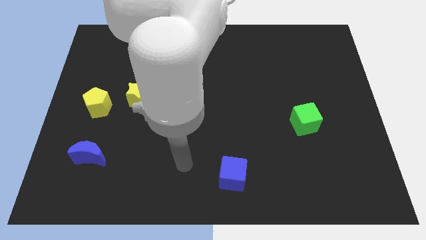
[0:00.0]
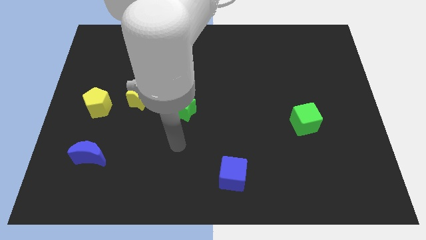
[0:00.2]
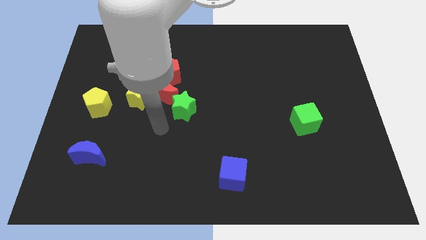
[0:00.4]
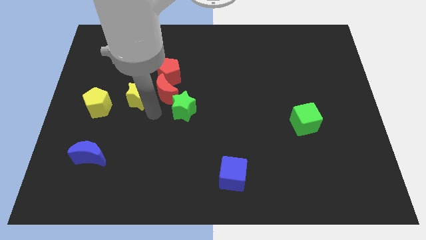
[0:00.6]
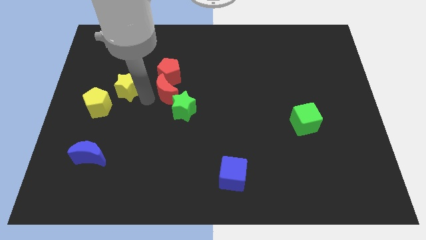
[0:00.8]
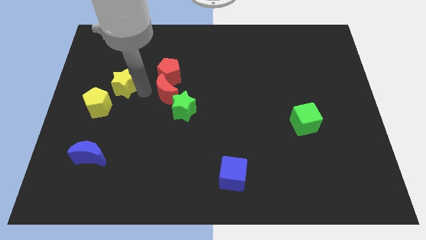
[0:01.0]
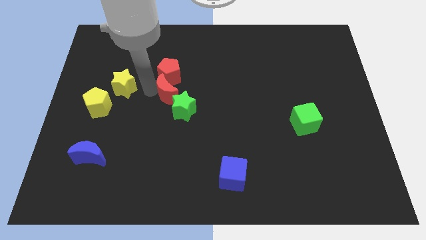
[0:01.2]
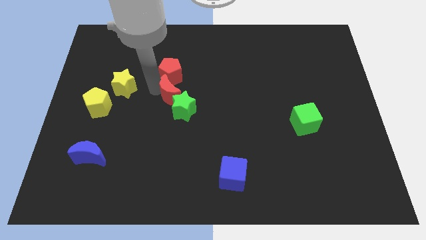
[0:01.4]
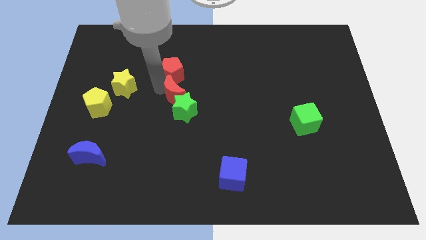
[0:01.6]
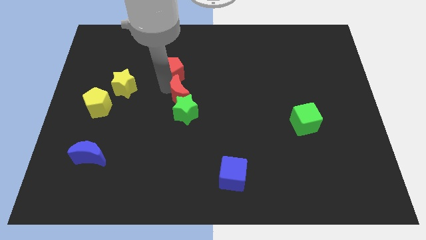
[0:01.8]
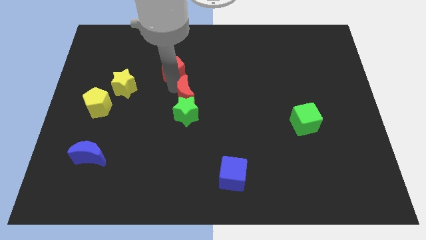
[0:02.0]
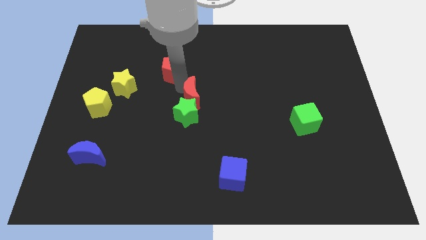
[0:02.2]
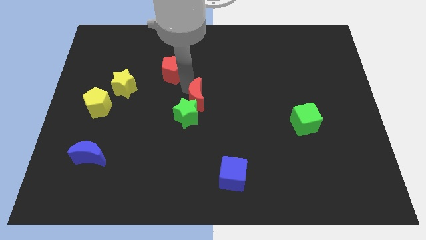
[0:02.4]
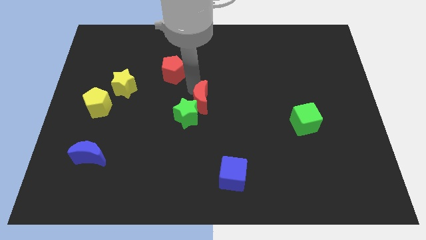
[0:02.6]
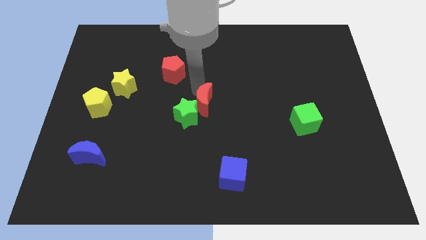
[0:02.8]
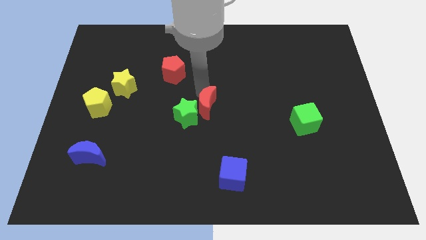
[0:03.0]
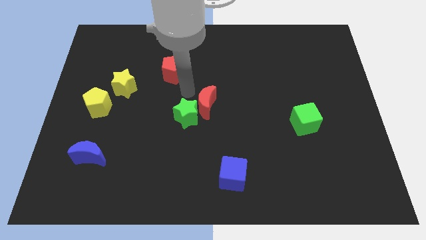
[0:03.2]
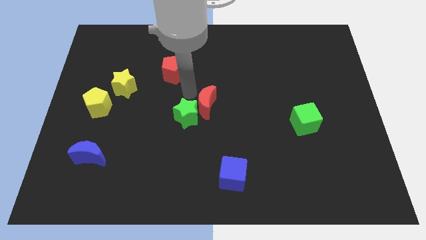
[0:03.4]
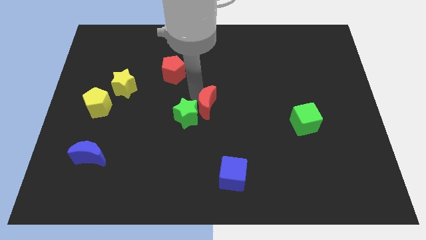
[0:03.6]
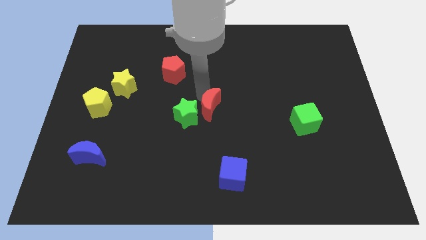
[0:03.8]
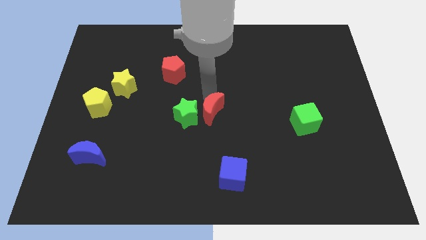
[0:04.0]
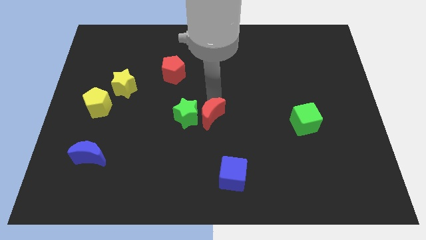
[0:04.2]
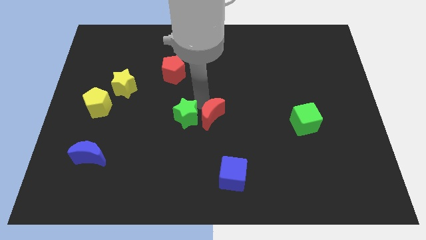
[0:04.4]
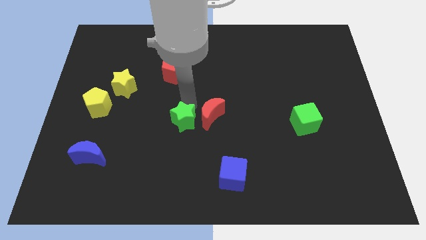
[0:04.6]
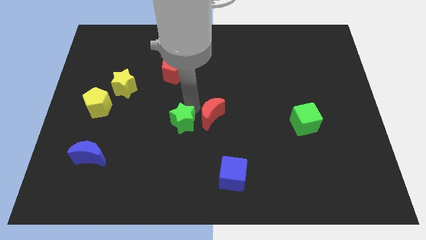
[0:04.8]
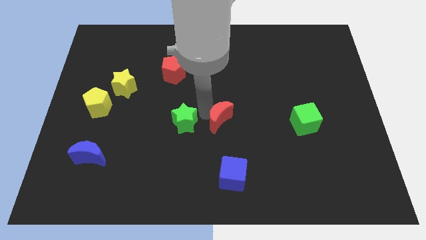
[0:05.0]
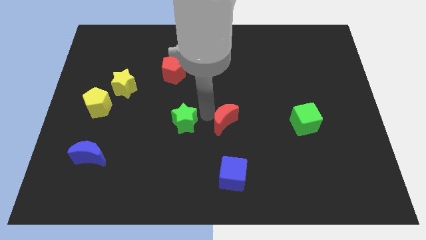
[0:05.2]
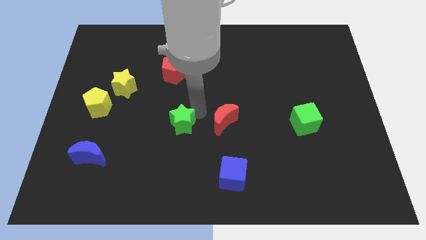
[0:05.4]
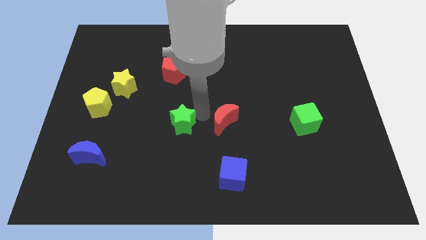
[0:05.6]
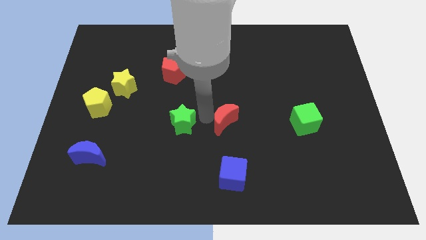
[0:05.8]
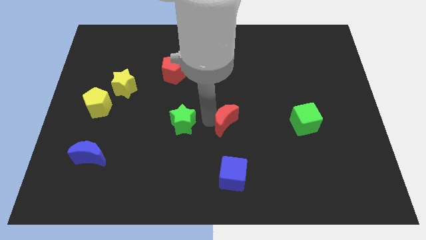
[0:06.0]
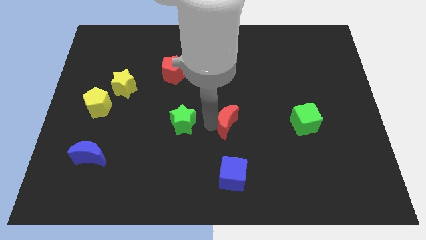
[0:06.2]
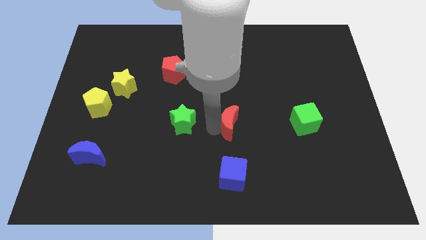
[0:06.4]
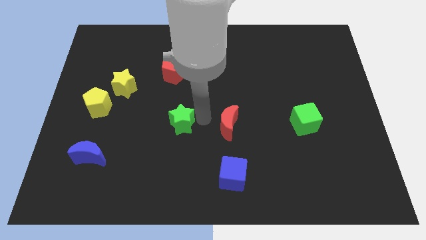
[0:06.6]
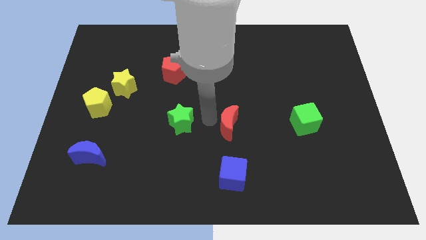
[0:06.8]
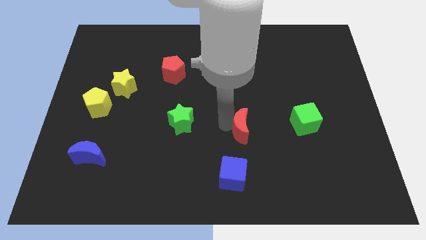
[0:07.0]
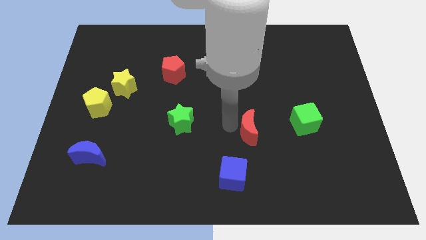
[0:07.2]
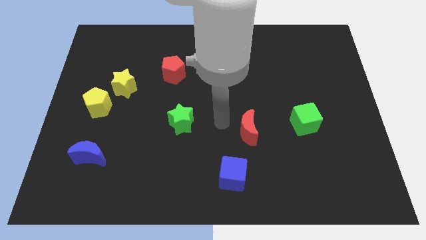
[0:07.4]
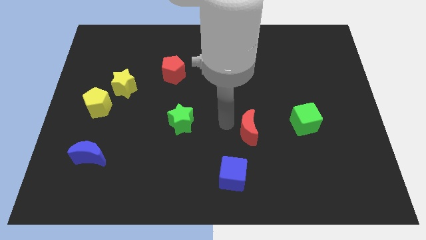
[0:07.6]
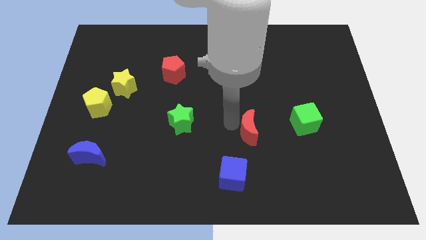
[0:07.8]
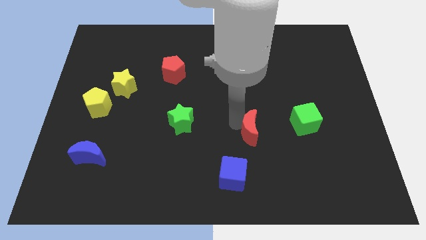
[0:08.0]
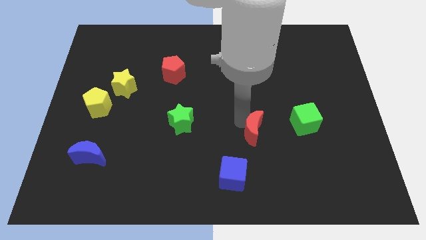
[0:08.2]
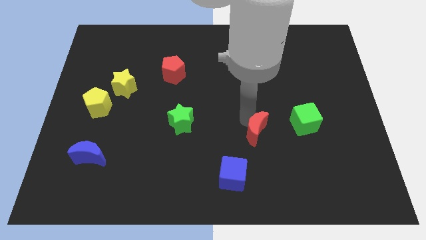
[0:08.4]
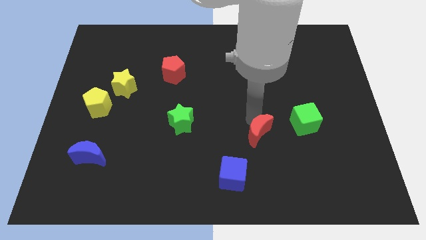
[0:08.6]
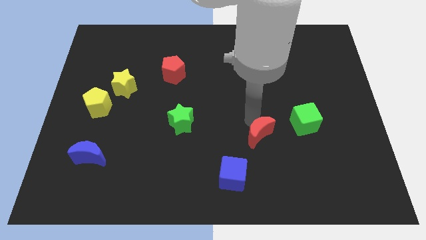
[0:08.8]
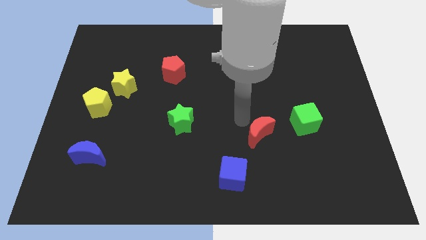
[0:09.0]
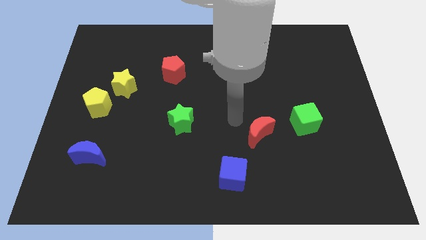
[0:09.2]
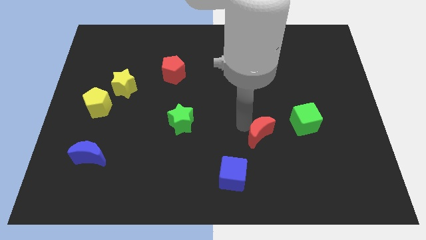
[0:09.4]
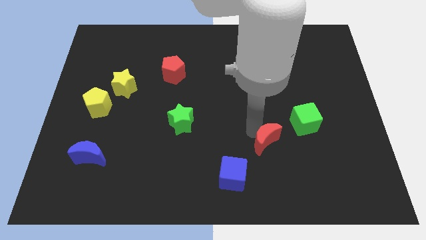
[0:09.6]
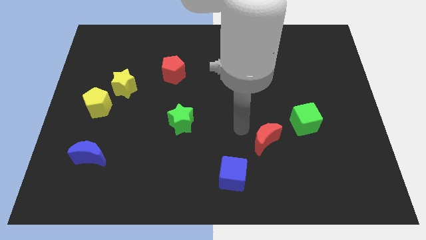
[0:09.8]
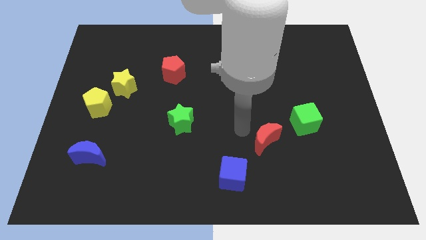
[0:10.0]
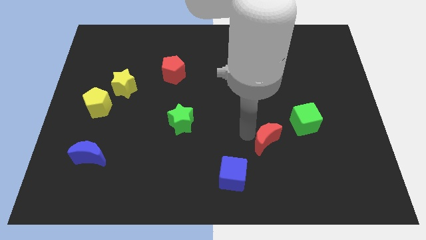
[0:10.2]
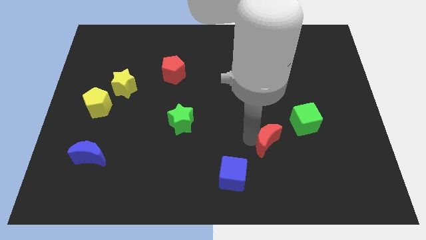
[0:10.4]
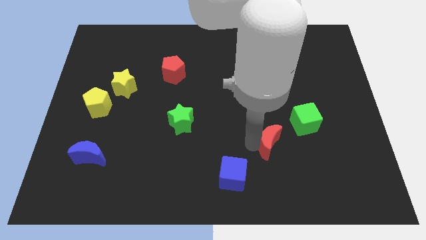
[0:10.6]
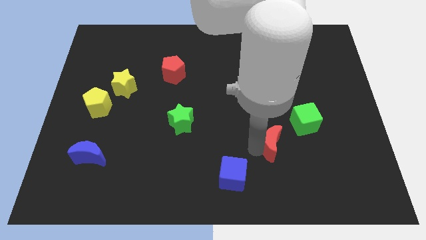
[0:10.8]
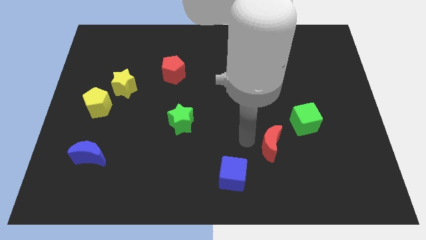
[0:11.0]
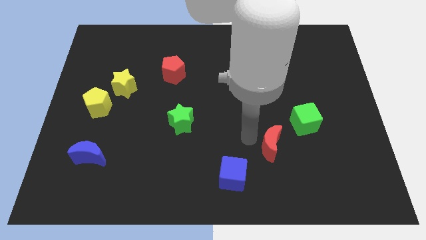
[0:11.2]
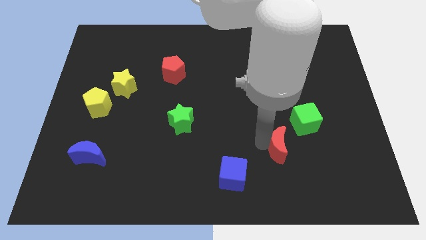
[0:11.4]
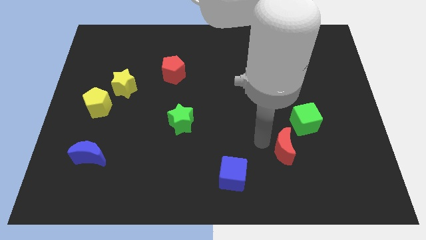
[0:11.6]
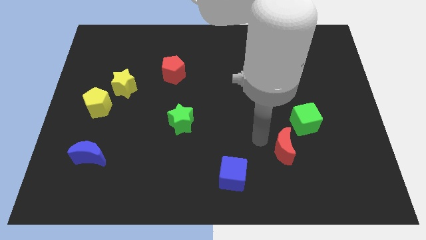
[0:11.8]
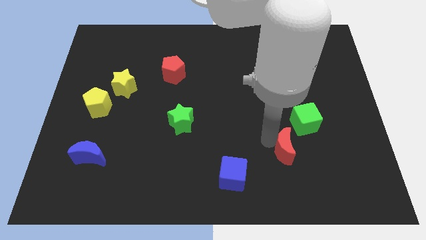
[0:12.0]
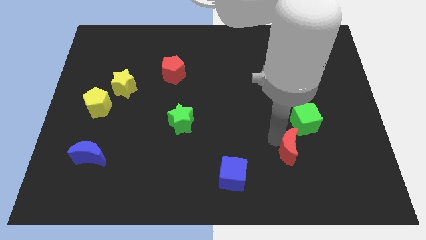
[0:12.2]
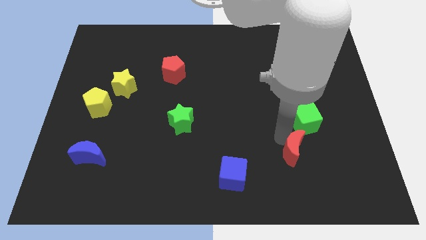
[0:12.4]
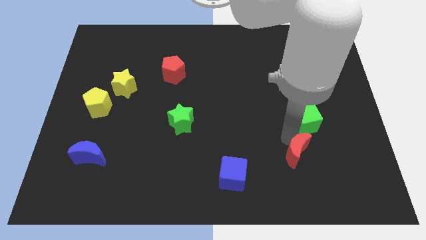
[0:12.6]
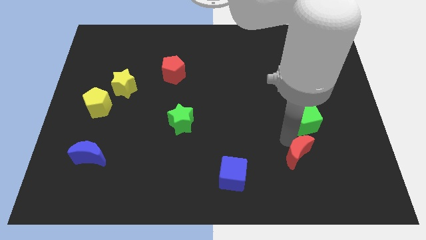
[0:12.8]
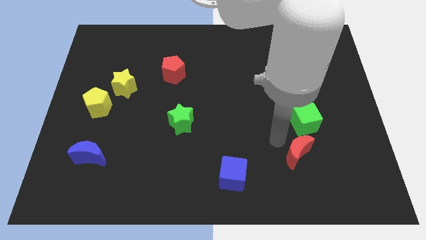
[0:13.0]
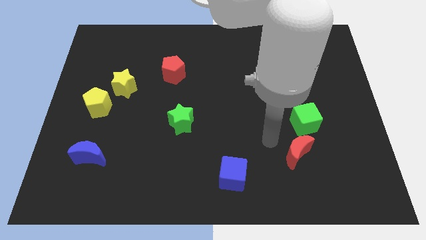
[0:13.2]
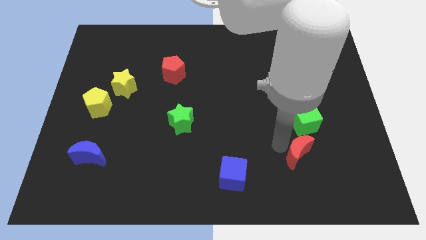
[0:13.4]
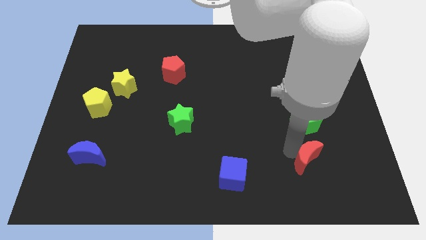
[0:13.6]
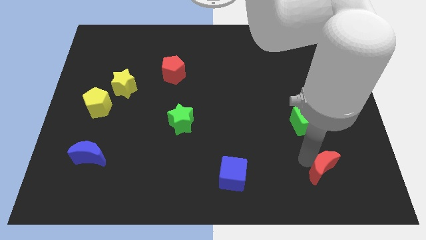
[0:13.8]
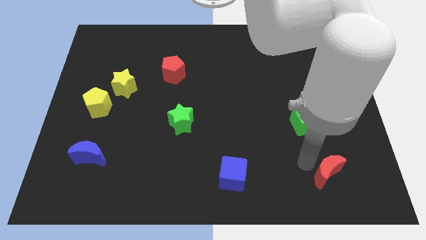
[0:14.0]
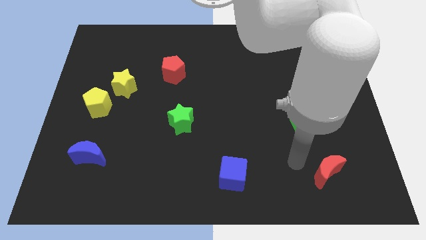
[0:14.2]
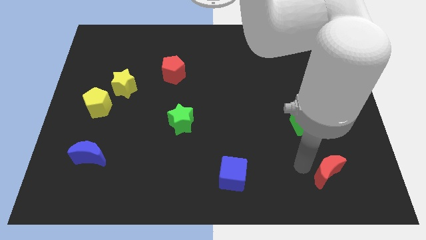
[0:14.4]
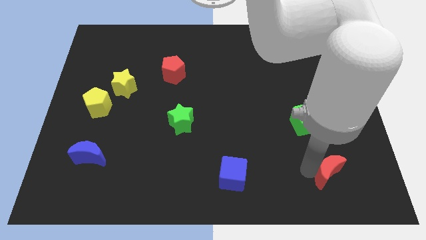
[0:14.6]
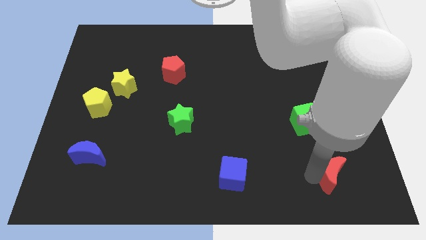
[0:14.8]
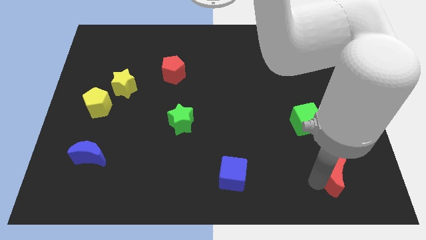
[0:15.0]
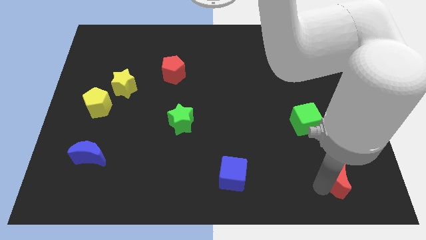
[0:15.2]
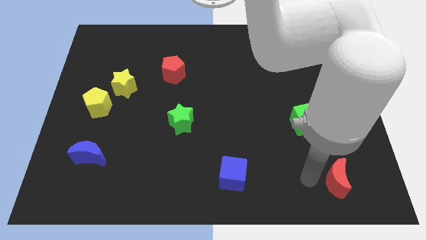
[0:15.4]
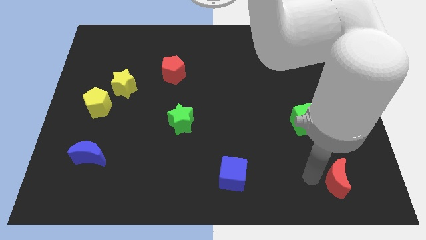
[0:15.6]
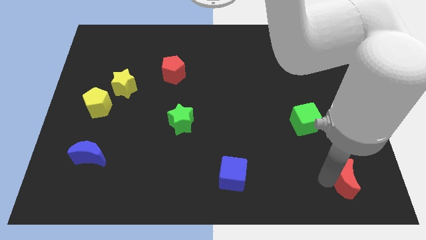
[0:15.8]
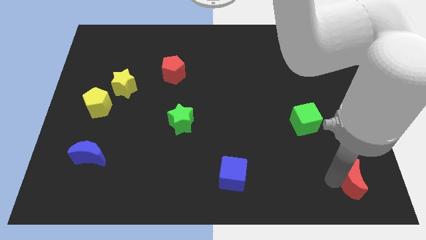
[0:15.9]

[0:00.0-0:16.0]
put the red moon to the bottom right corner
